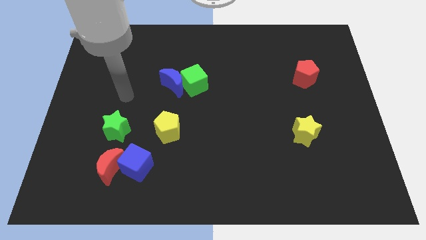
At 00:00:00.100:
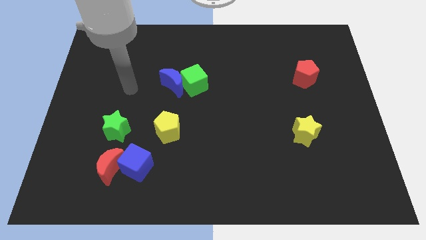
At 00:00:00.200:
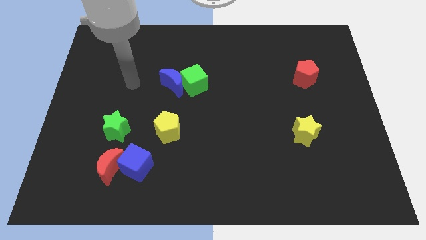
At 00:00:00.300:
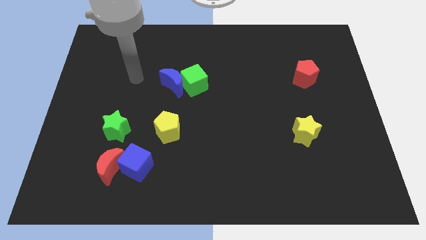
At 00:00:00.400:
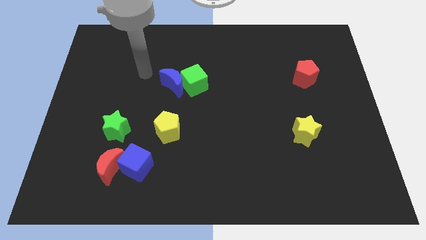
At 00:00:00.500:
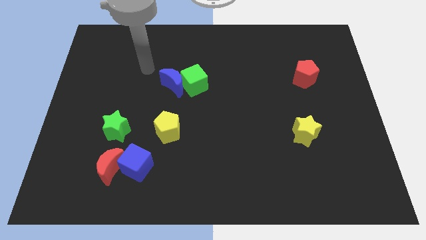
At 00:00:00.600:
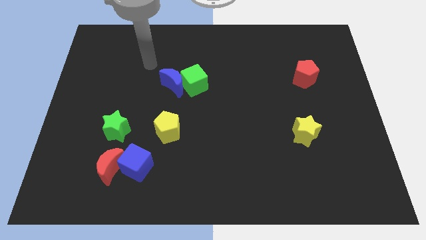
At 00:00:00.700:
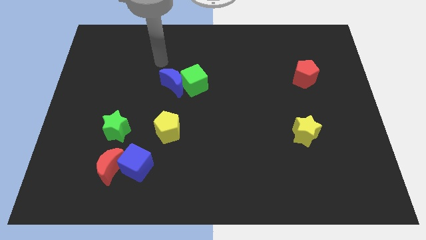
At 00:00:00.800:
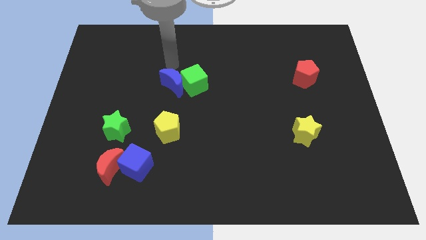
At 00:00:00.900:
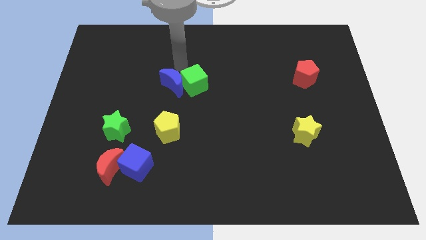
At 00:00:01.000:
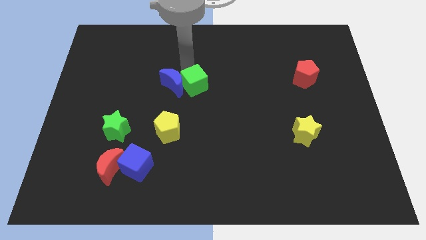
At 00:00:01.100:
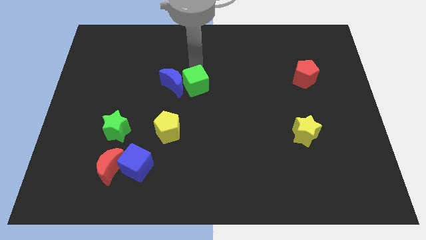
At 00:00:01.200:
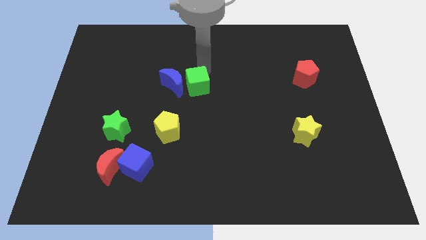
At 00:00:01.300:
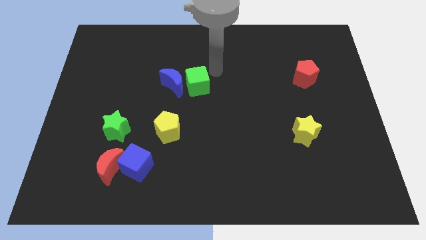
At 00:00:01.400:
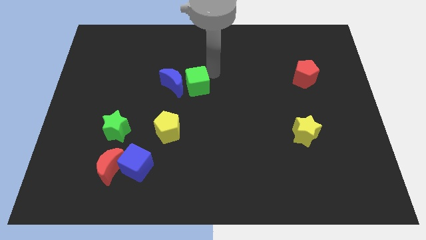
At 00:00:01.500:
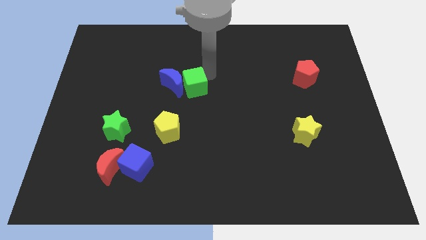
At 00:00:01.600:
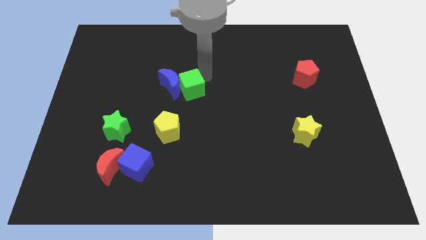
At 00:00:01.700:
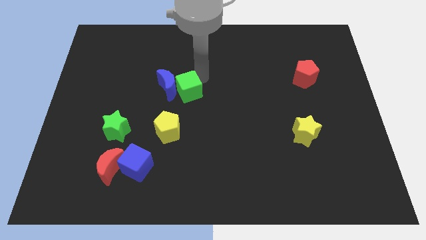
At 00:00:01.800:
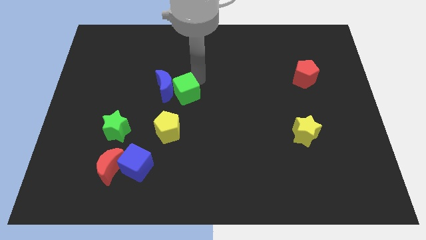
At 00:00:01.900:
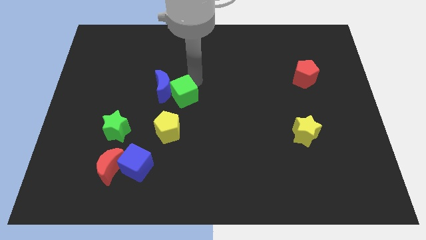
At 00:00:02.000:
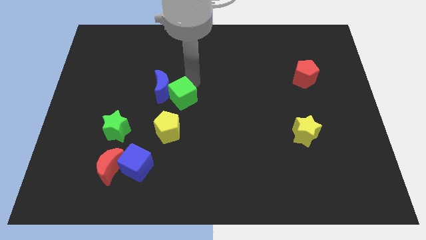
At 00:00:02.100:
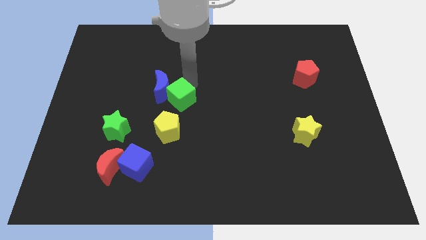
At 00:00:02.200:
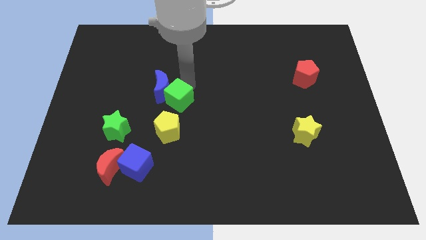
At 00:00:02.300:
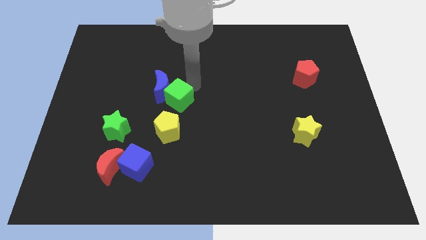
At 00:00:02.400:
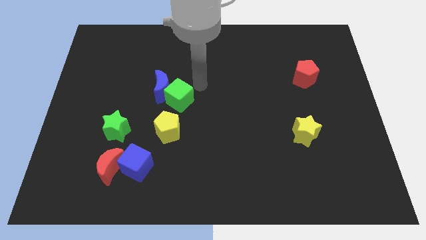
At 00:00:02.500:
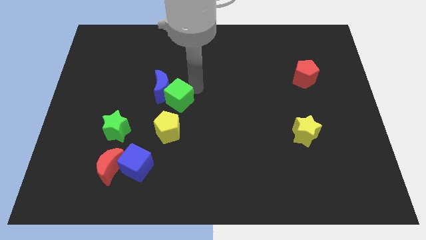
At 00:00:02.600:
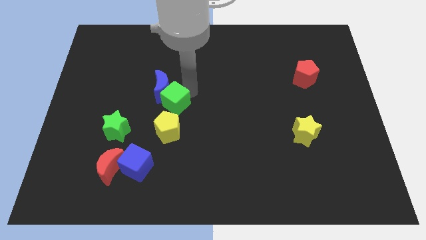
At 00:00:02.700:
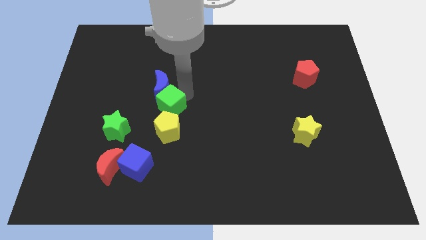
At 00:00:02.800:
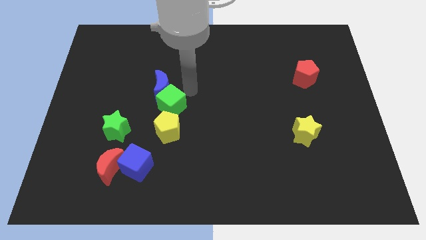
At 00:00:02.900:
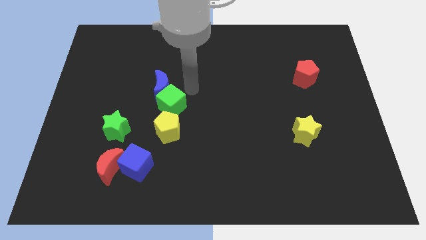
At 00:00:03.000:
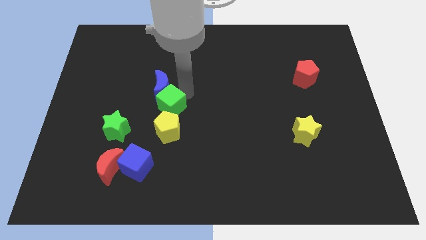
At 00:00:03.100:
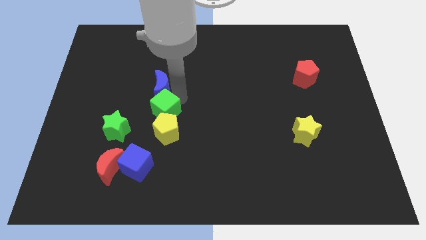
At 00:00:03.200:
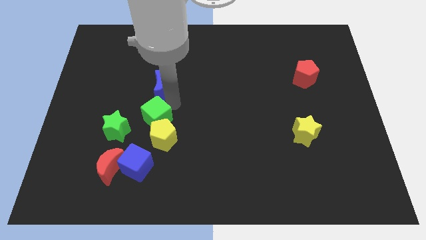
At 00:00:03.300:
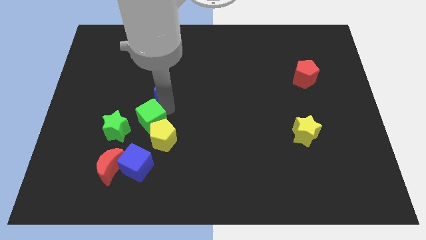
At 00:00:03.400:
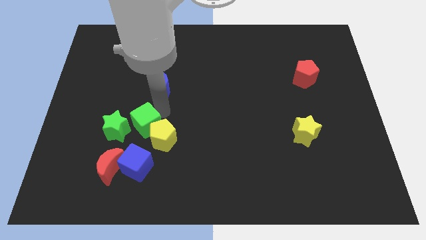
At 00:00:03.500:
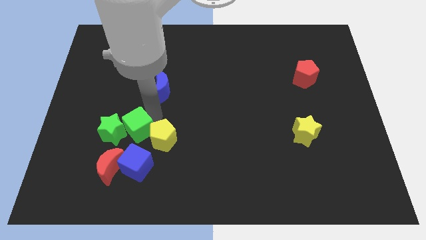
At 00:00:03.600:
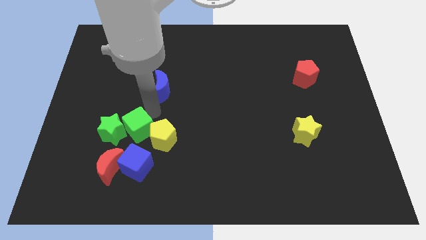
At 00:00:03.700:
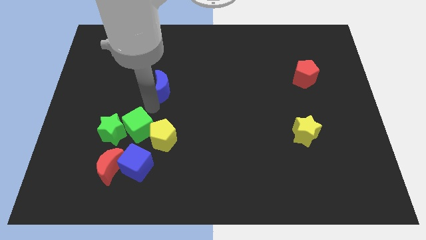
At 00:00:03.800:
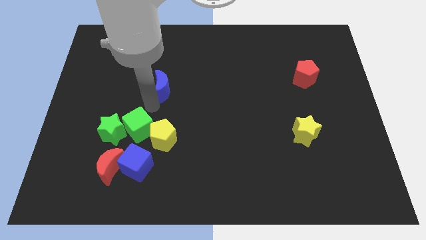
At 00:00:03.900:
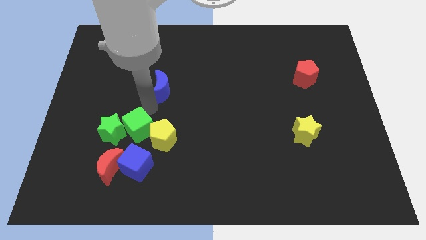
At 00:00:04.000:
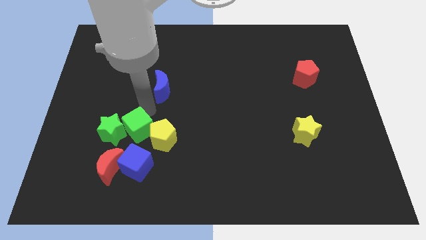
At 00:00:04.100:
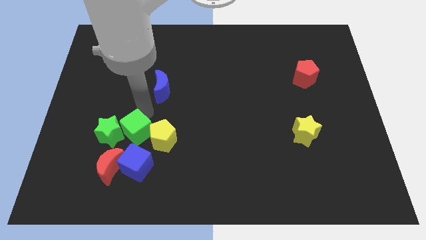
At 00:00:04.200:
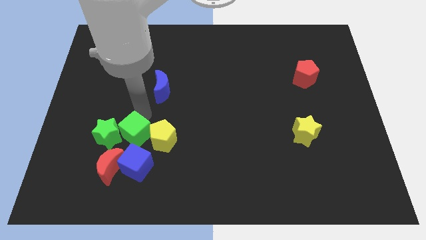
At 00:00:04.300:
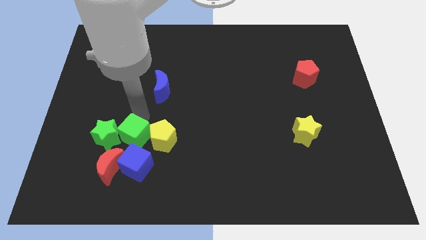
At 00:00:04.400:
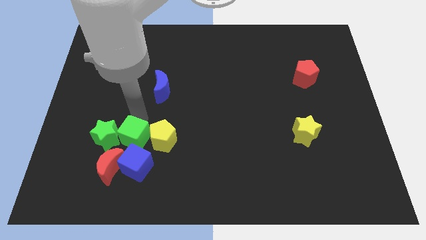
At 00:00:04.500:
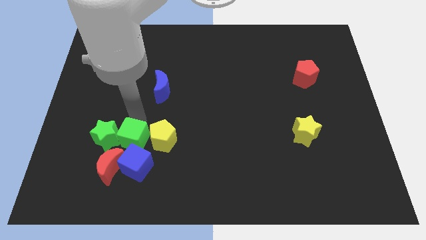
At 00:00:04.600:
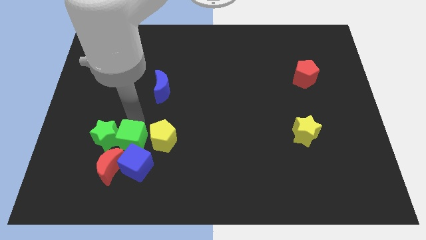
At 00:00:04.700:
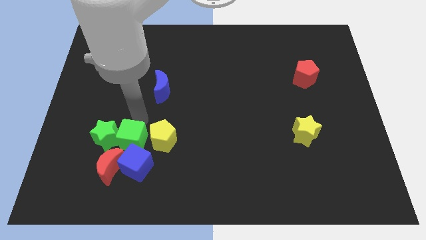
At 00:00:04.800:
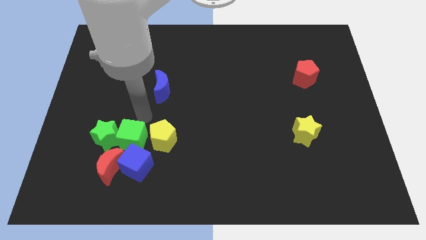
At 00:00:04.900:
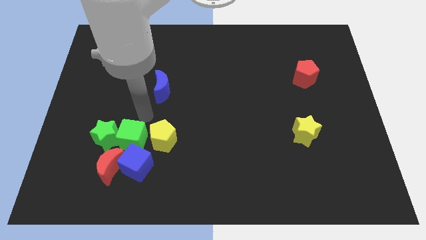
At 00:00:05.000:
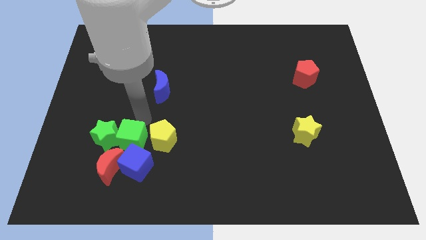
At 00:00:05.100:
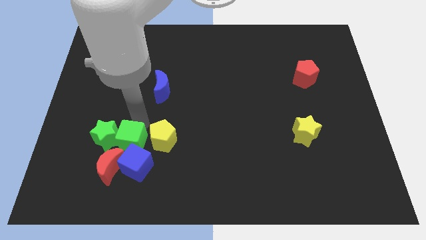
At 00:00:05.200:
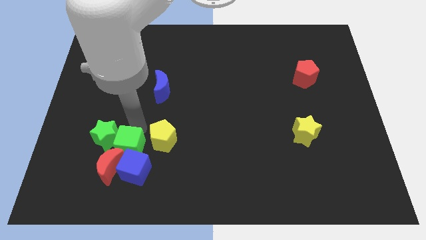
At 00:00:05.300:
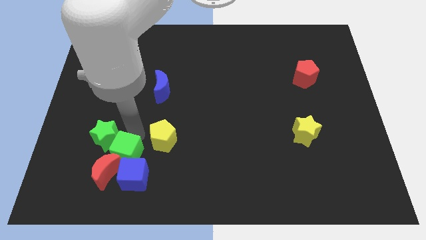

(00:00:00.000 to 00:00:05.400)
slide the green cube towards the red moon

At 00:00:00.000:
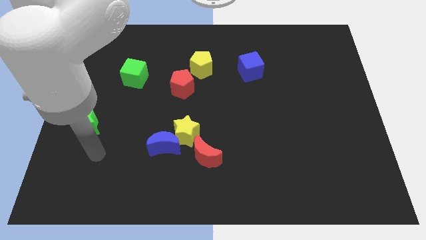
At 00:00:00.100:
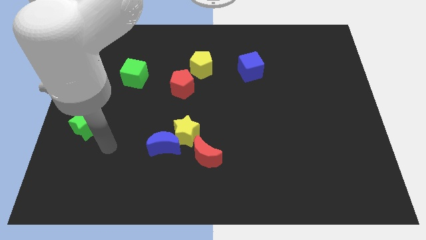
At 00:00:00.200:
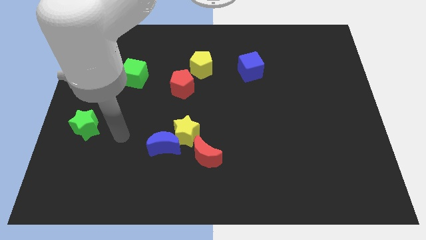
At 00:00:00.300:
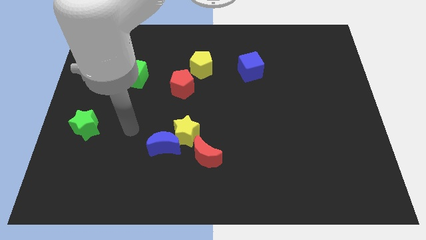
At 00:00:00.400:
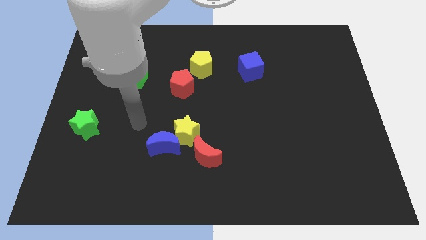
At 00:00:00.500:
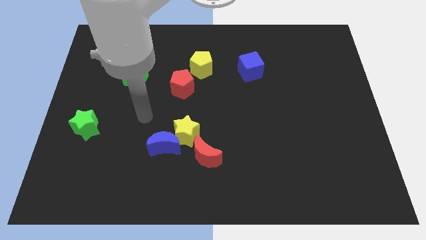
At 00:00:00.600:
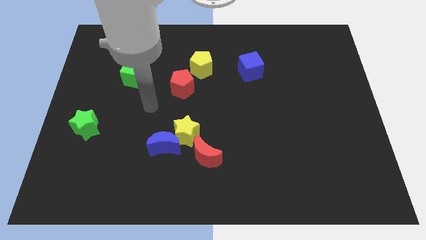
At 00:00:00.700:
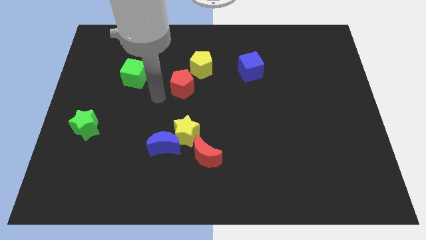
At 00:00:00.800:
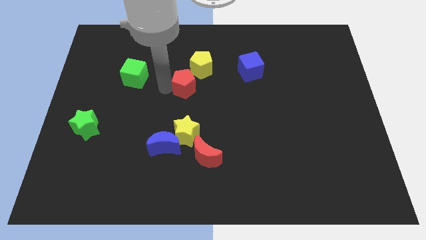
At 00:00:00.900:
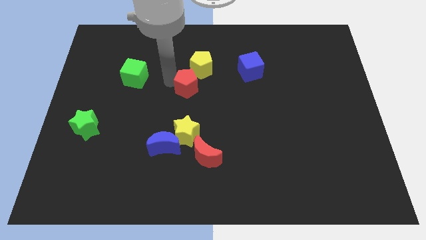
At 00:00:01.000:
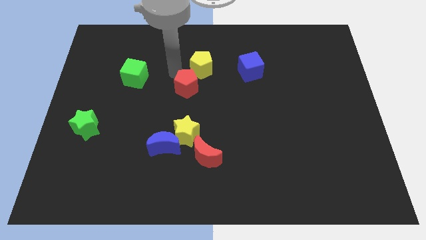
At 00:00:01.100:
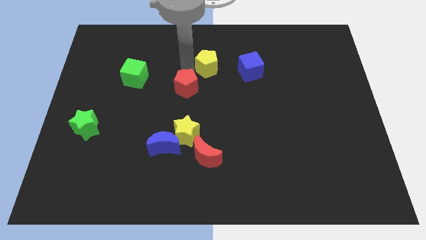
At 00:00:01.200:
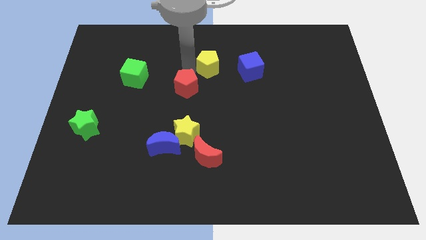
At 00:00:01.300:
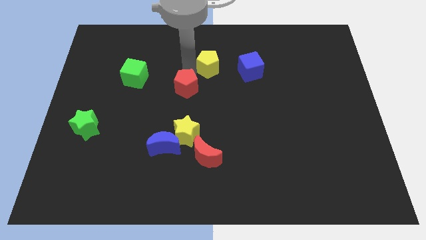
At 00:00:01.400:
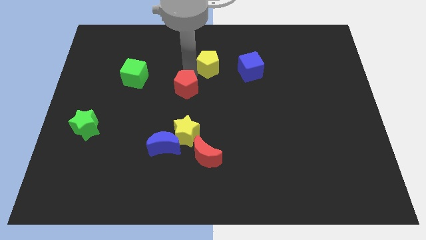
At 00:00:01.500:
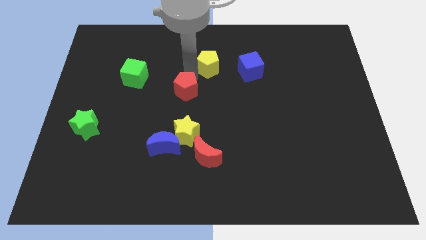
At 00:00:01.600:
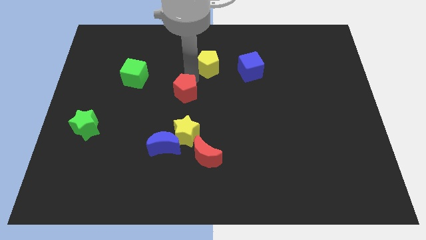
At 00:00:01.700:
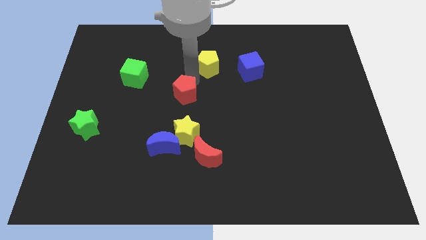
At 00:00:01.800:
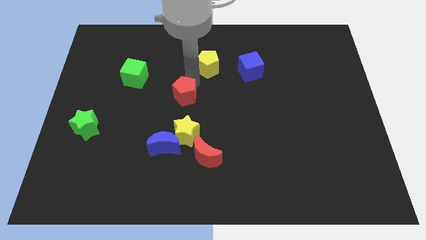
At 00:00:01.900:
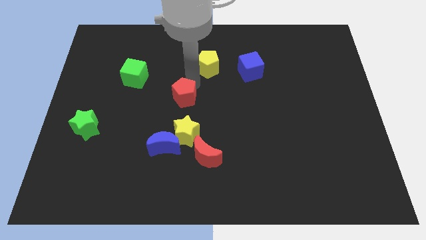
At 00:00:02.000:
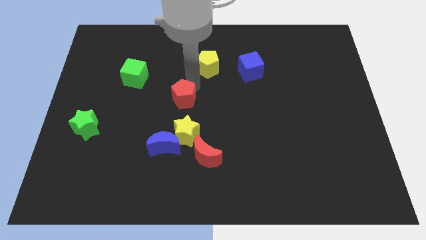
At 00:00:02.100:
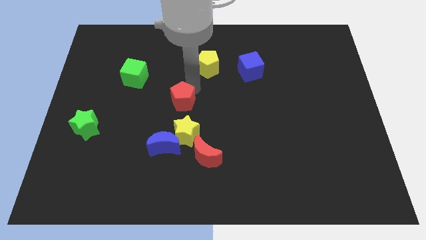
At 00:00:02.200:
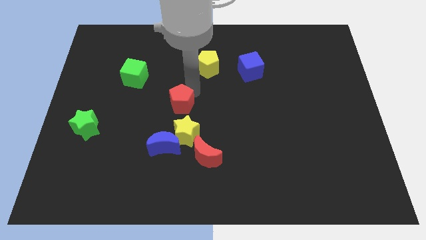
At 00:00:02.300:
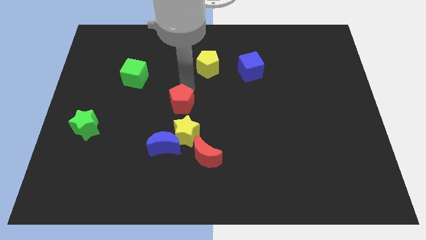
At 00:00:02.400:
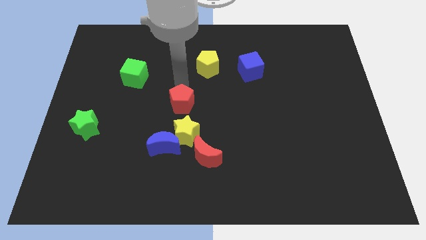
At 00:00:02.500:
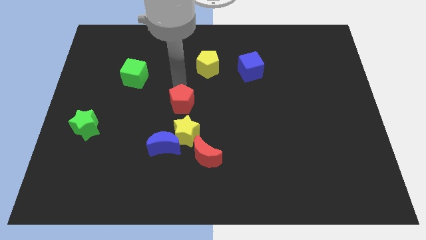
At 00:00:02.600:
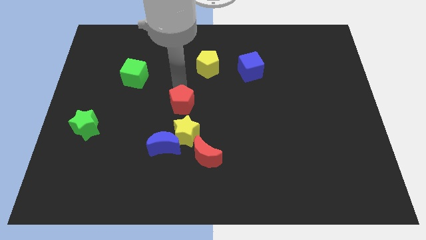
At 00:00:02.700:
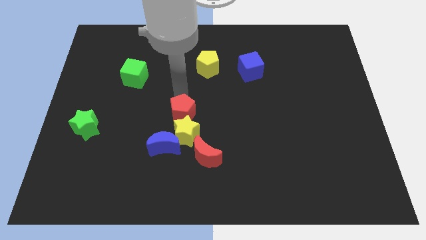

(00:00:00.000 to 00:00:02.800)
put the red pentagon close to the yellow star
